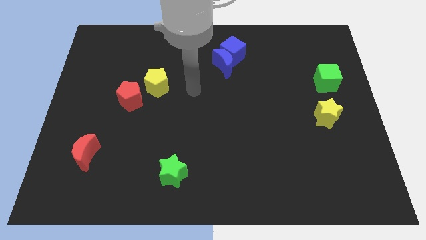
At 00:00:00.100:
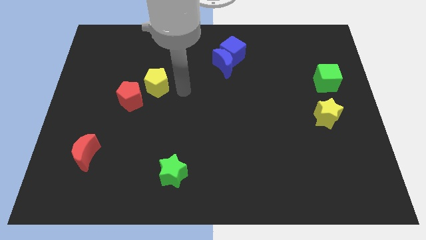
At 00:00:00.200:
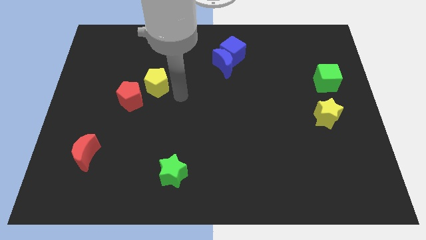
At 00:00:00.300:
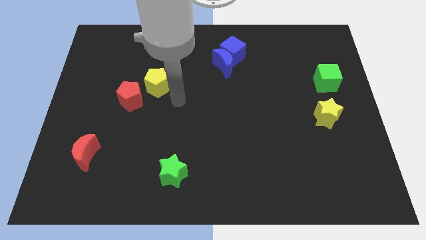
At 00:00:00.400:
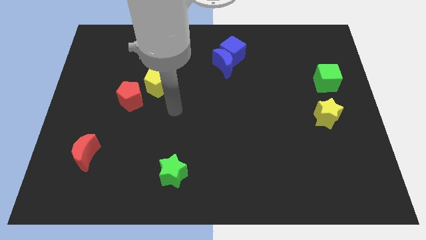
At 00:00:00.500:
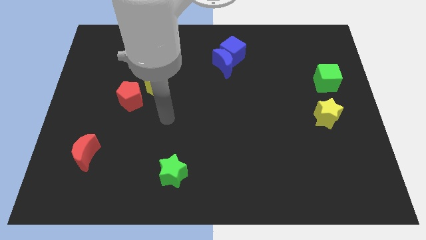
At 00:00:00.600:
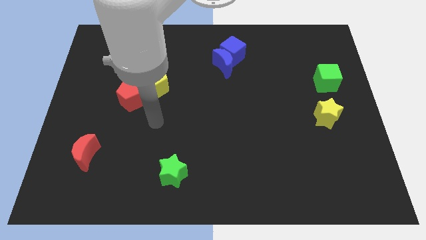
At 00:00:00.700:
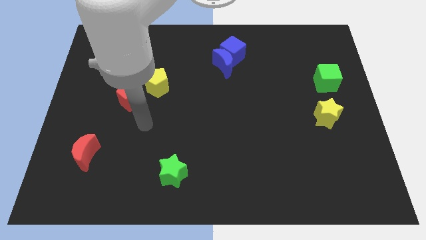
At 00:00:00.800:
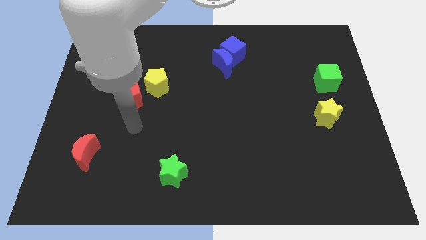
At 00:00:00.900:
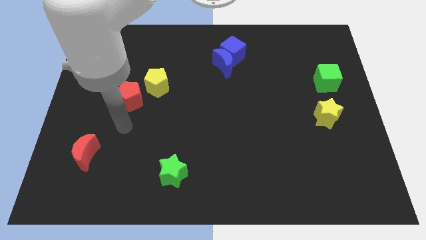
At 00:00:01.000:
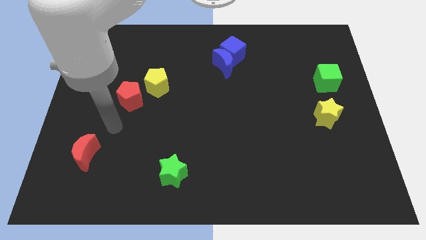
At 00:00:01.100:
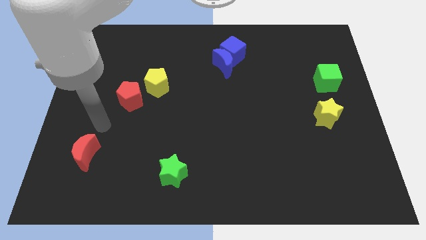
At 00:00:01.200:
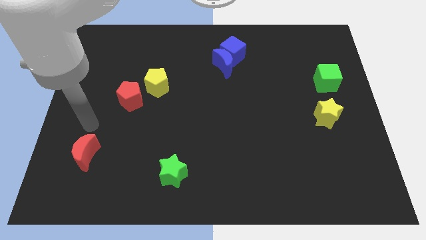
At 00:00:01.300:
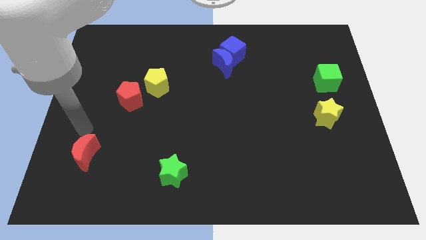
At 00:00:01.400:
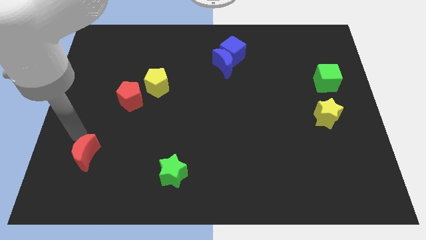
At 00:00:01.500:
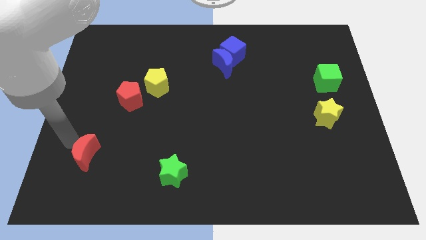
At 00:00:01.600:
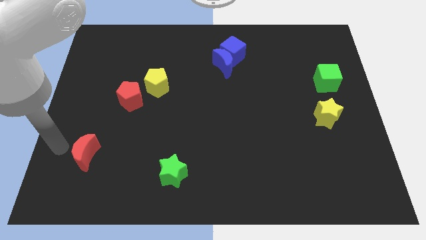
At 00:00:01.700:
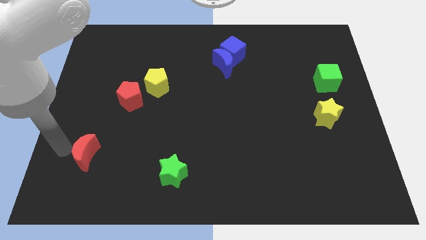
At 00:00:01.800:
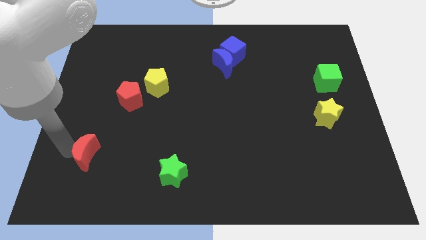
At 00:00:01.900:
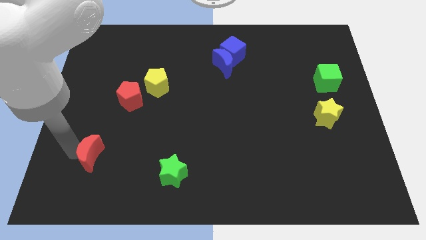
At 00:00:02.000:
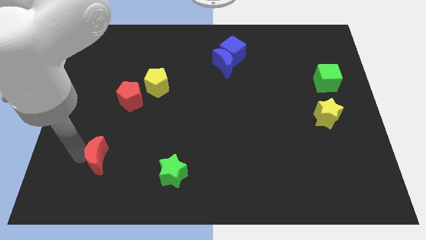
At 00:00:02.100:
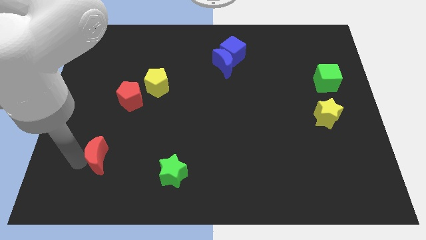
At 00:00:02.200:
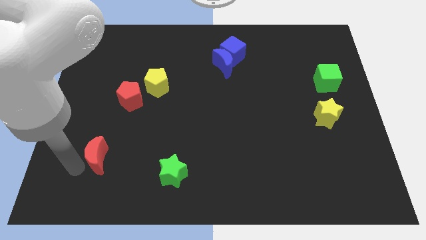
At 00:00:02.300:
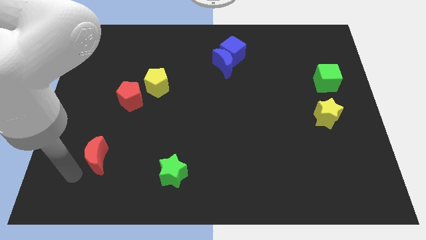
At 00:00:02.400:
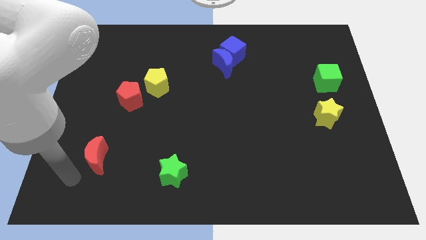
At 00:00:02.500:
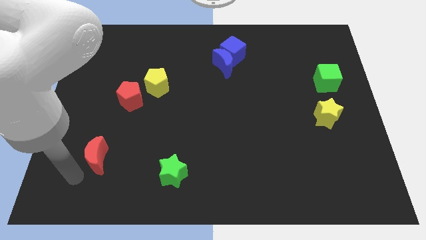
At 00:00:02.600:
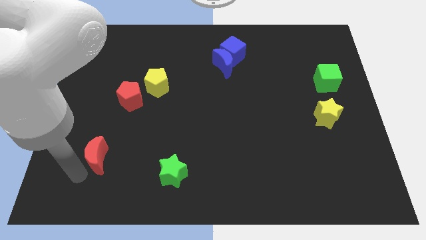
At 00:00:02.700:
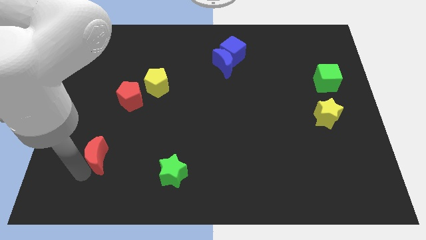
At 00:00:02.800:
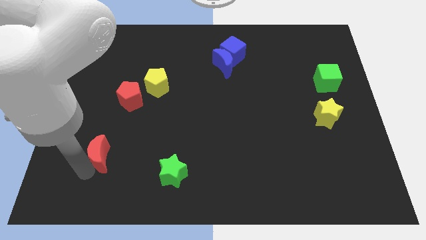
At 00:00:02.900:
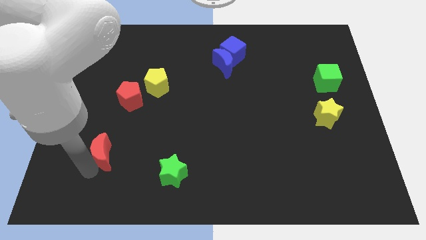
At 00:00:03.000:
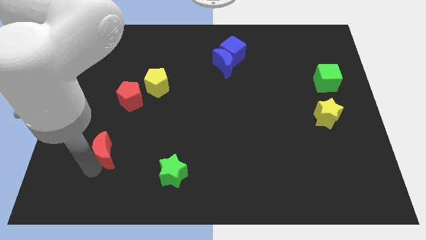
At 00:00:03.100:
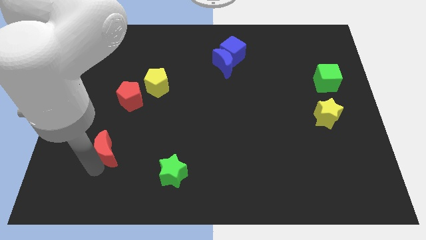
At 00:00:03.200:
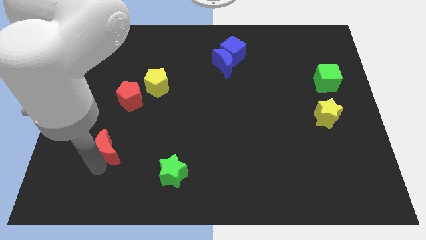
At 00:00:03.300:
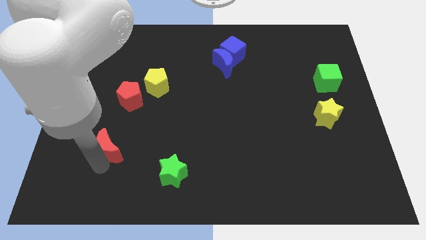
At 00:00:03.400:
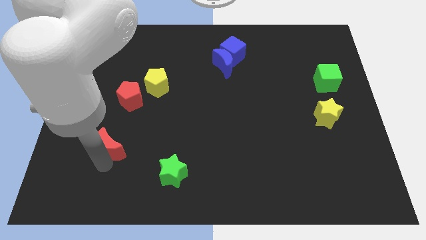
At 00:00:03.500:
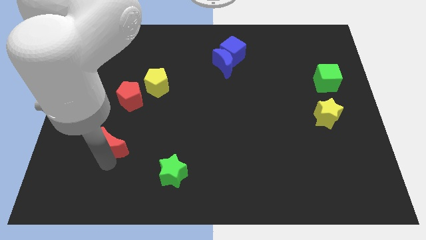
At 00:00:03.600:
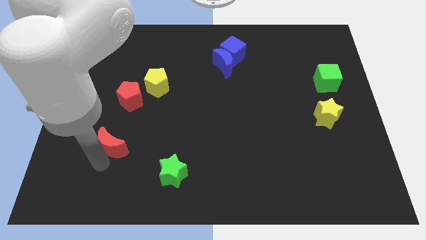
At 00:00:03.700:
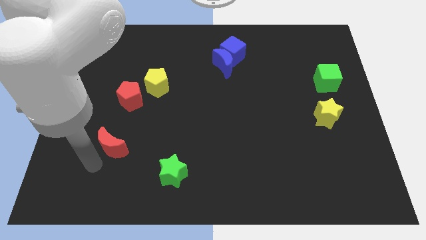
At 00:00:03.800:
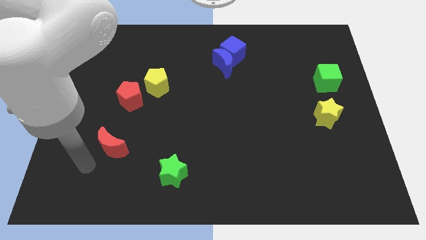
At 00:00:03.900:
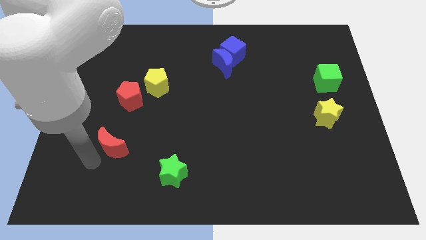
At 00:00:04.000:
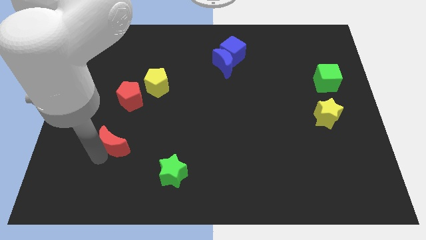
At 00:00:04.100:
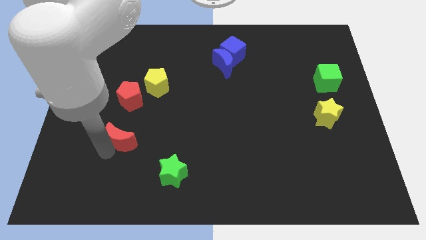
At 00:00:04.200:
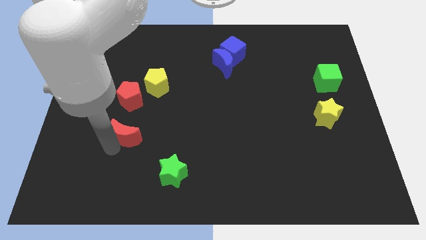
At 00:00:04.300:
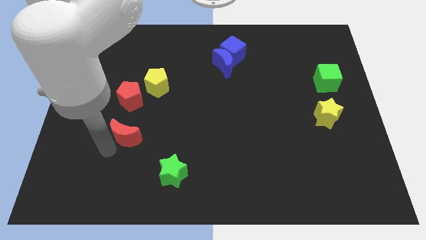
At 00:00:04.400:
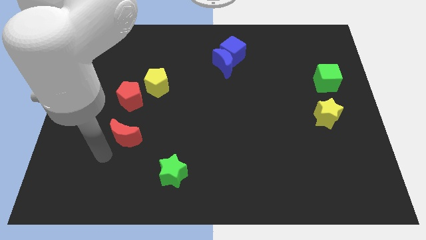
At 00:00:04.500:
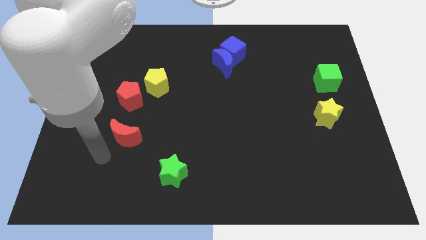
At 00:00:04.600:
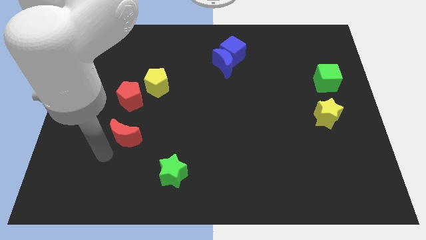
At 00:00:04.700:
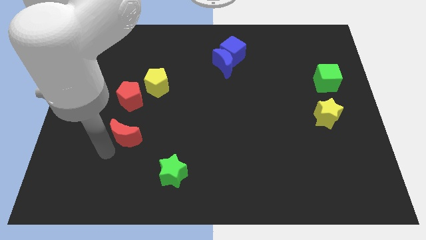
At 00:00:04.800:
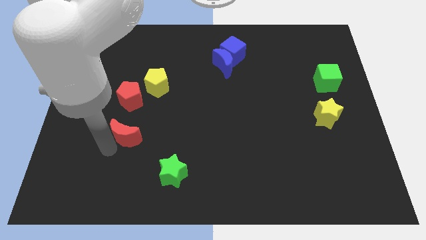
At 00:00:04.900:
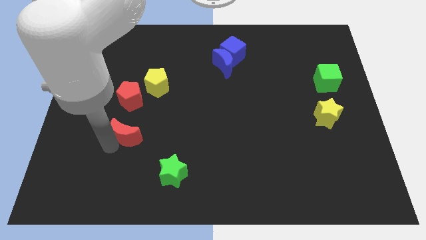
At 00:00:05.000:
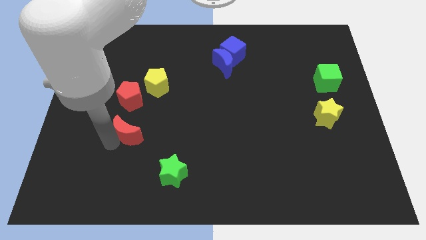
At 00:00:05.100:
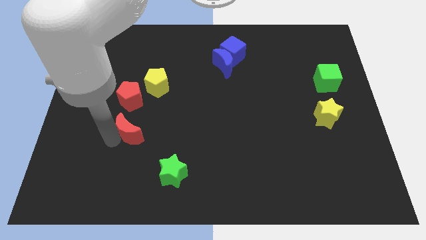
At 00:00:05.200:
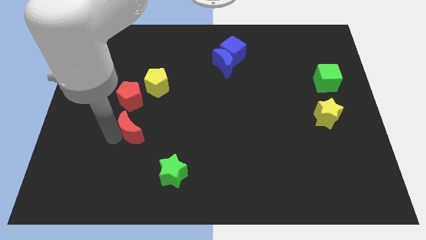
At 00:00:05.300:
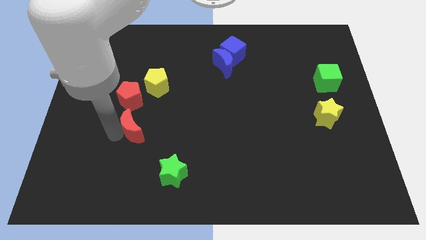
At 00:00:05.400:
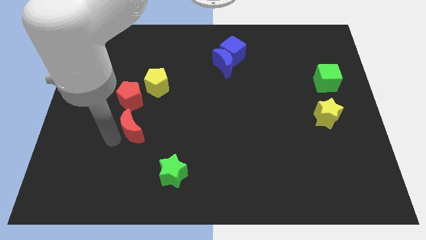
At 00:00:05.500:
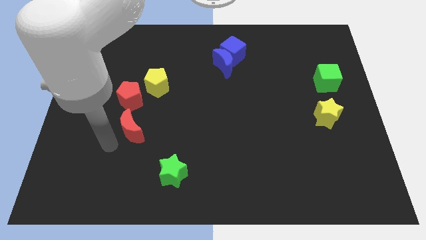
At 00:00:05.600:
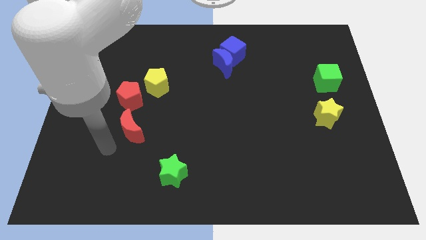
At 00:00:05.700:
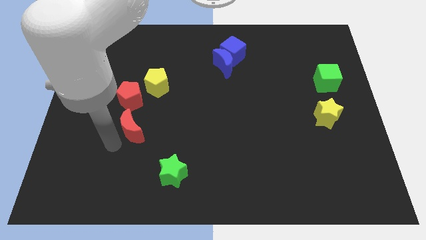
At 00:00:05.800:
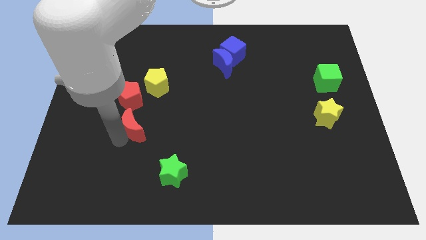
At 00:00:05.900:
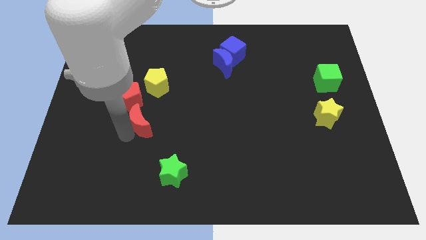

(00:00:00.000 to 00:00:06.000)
push the red moon to the bottom right side of the red pentagon

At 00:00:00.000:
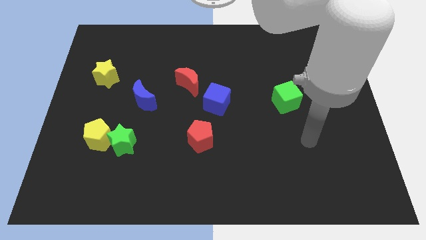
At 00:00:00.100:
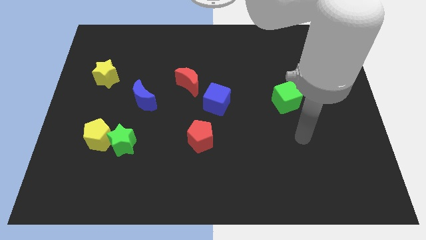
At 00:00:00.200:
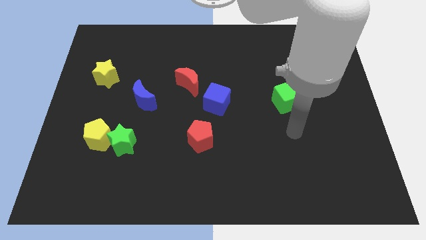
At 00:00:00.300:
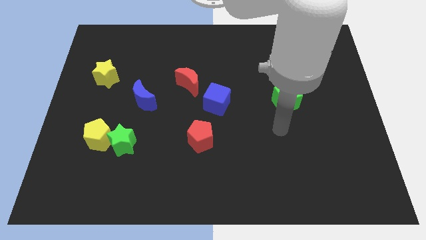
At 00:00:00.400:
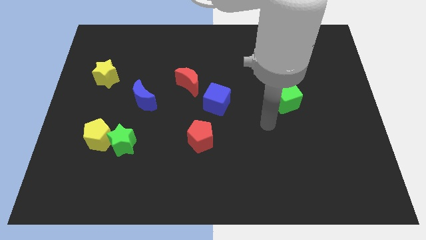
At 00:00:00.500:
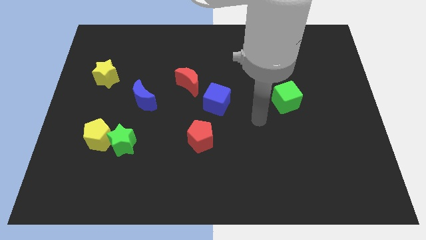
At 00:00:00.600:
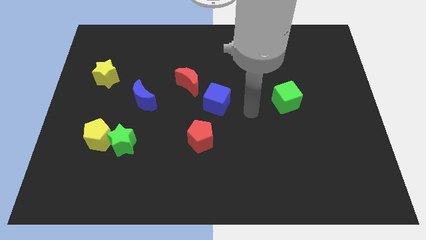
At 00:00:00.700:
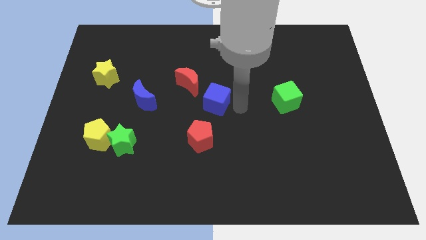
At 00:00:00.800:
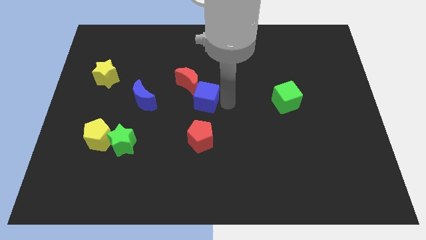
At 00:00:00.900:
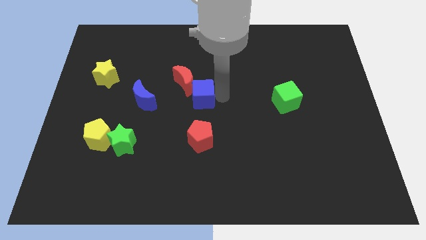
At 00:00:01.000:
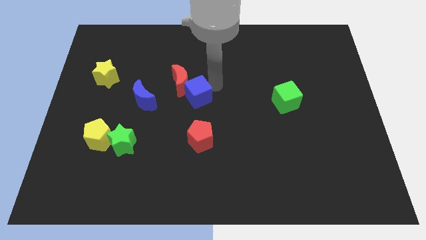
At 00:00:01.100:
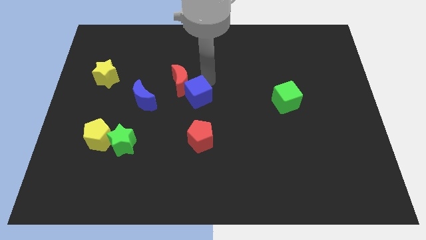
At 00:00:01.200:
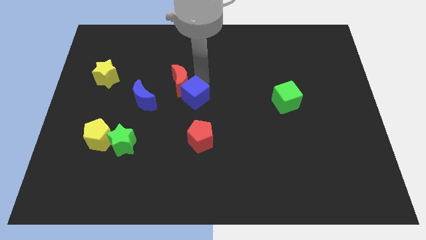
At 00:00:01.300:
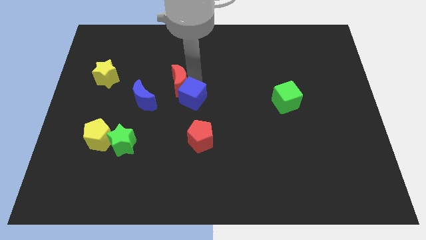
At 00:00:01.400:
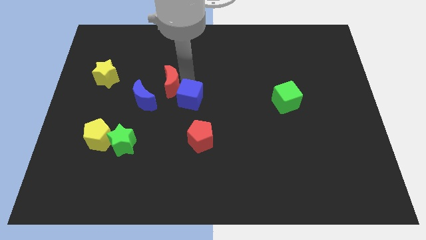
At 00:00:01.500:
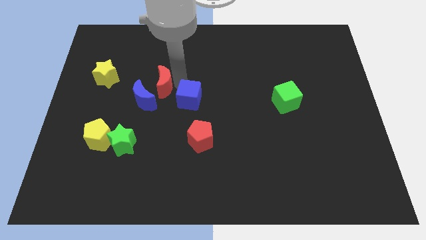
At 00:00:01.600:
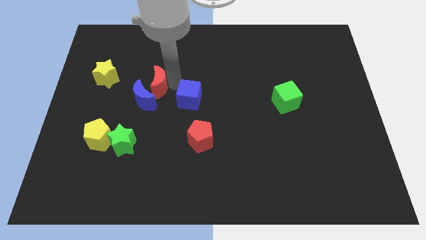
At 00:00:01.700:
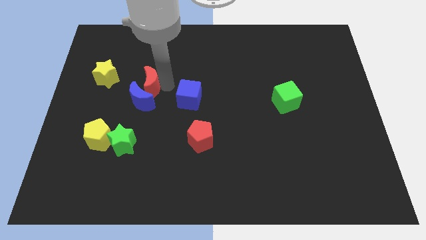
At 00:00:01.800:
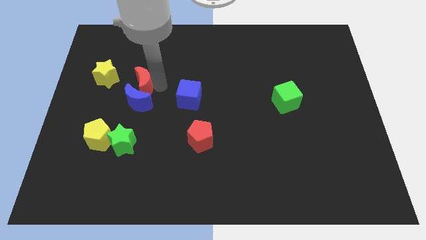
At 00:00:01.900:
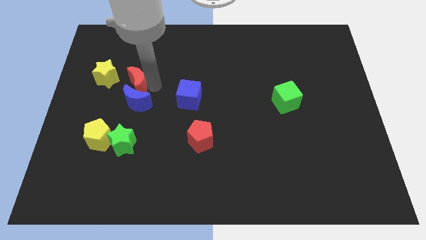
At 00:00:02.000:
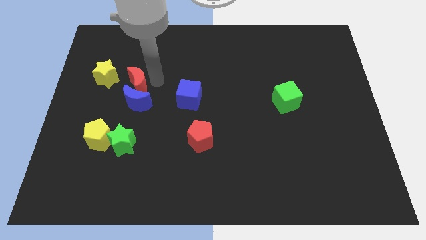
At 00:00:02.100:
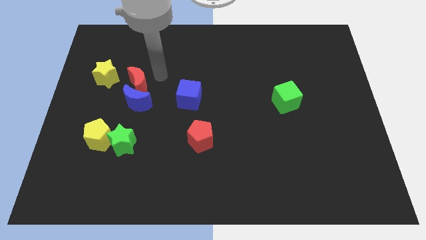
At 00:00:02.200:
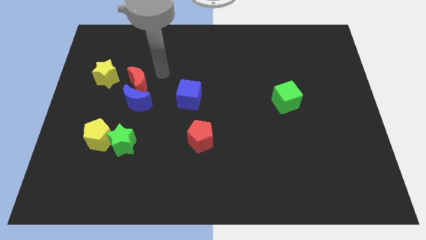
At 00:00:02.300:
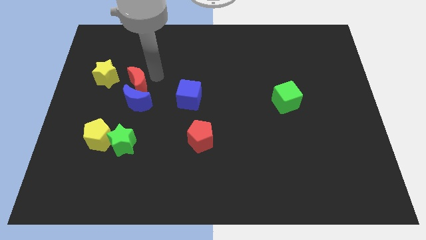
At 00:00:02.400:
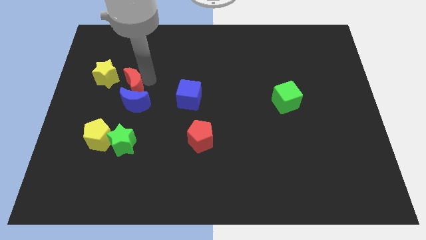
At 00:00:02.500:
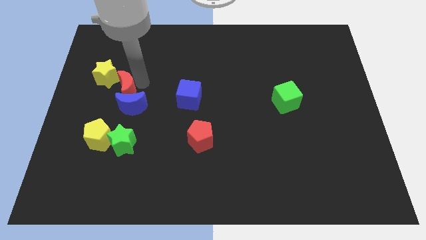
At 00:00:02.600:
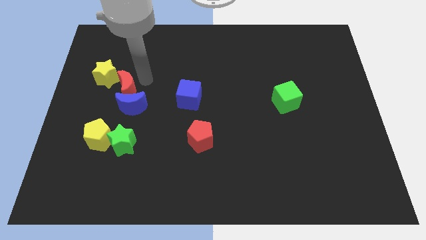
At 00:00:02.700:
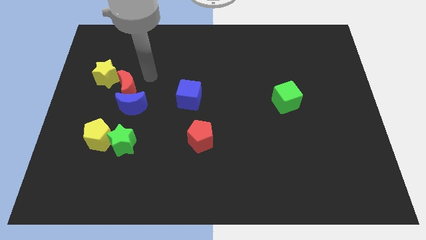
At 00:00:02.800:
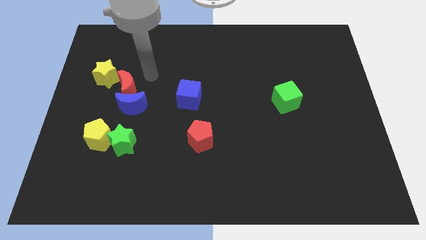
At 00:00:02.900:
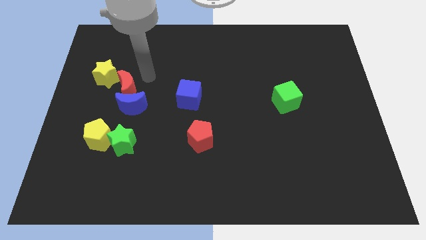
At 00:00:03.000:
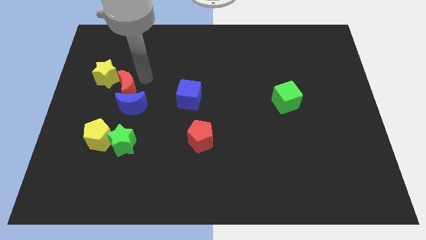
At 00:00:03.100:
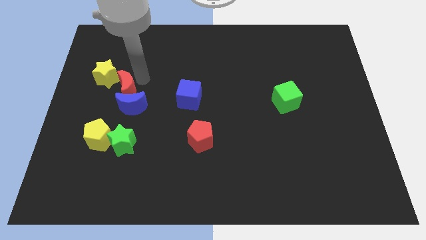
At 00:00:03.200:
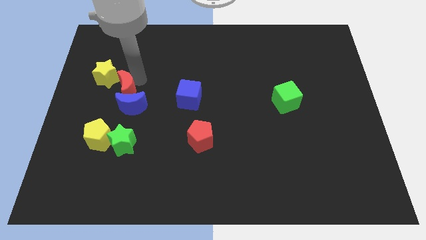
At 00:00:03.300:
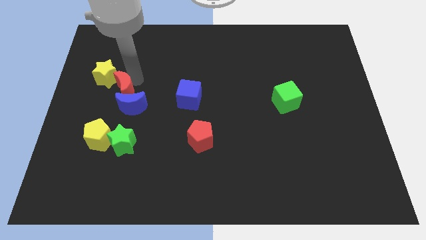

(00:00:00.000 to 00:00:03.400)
move the red moon to the top of the yellow pentagon
